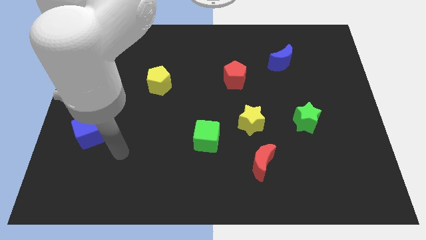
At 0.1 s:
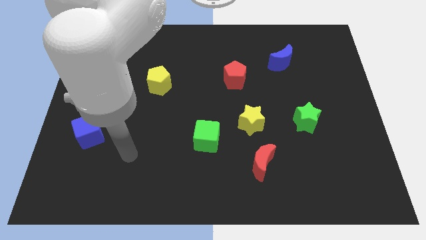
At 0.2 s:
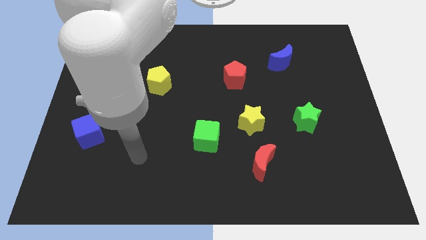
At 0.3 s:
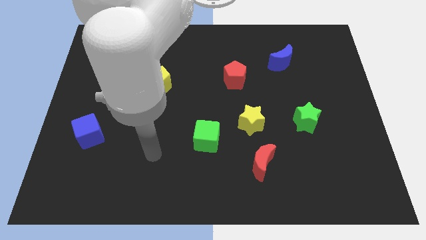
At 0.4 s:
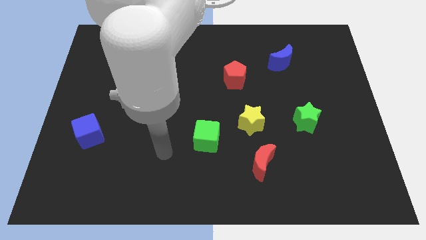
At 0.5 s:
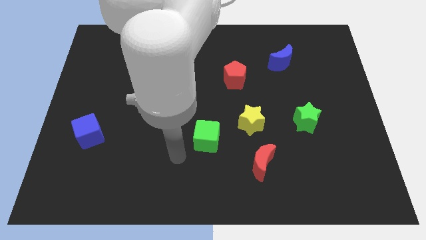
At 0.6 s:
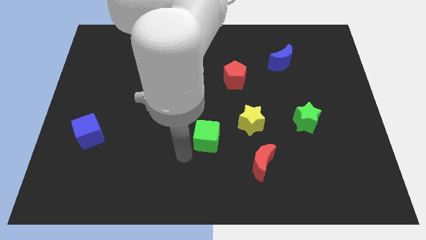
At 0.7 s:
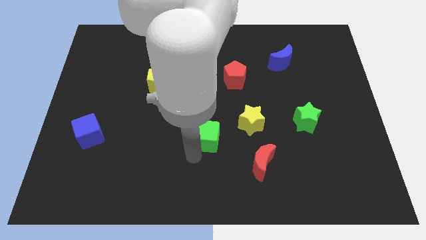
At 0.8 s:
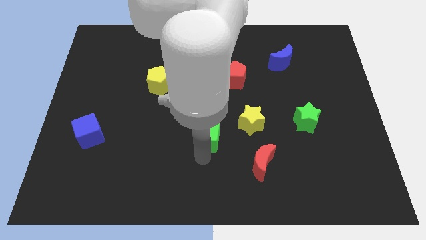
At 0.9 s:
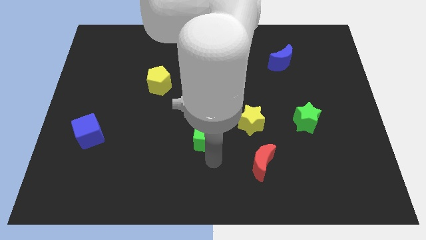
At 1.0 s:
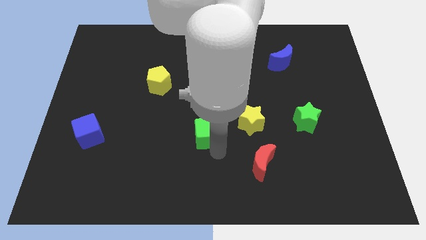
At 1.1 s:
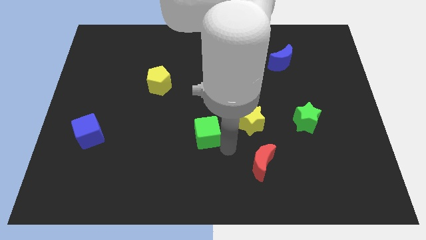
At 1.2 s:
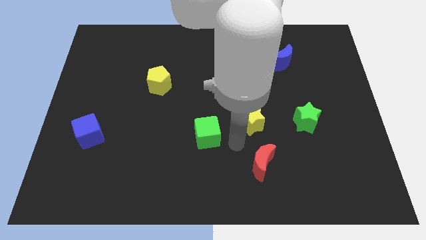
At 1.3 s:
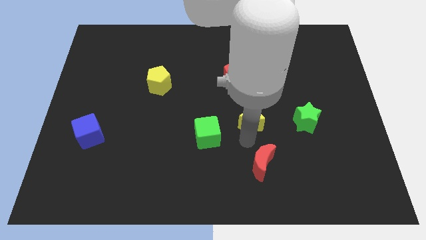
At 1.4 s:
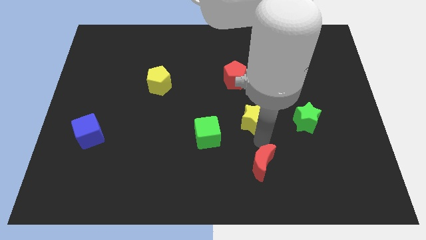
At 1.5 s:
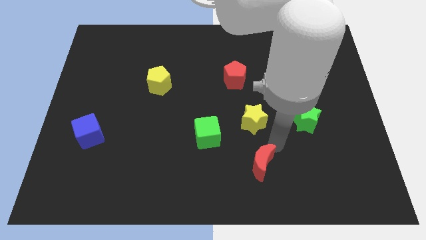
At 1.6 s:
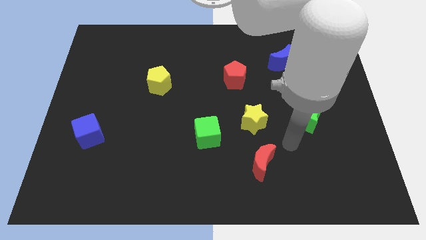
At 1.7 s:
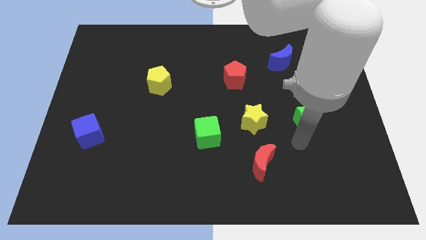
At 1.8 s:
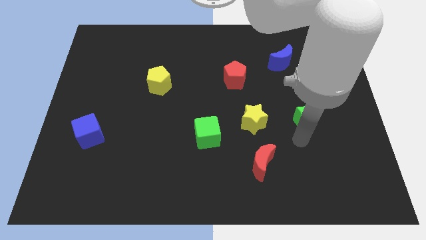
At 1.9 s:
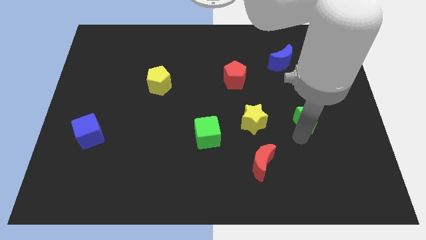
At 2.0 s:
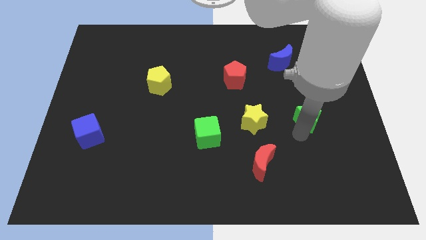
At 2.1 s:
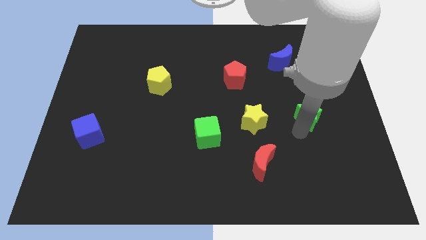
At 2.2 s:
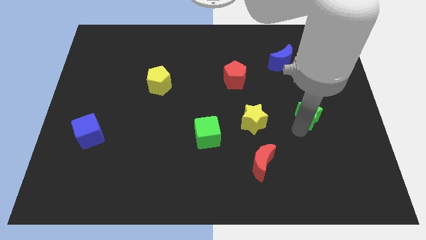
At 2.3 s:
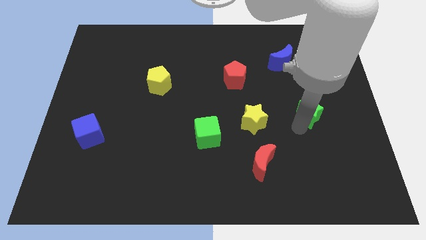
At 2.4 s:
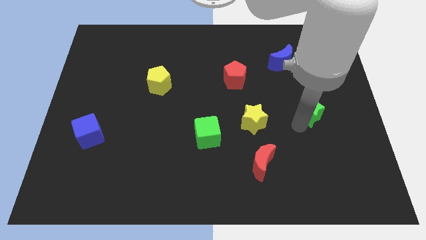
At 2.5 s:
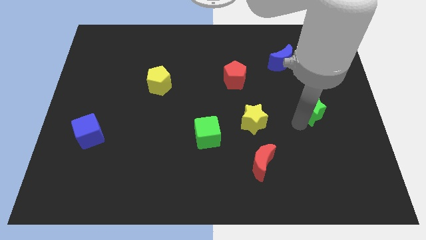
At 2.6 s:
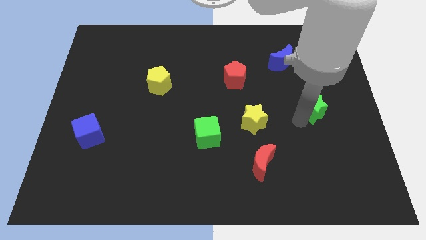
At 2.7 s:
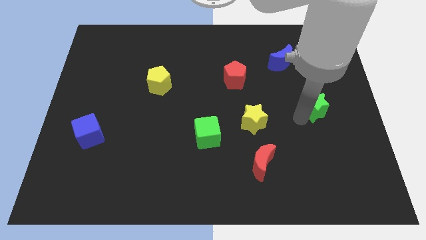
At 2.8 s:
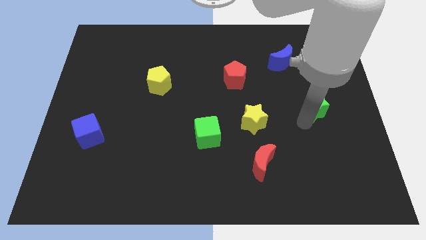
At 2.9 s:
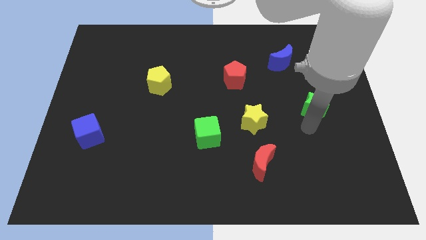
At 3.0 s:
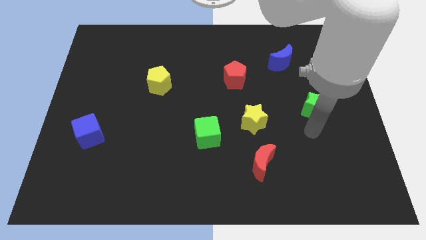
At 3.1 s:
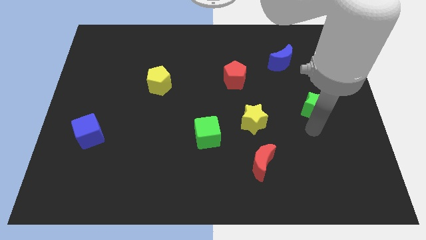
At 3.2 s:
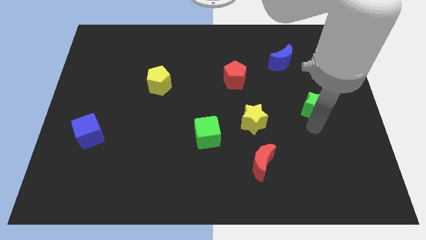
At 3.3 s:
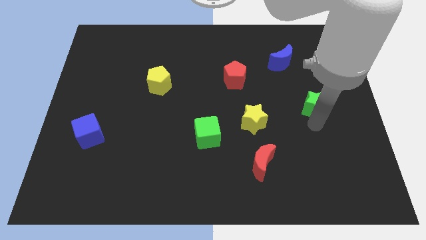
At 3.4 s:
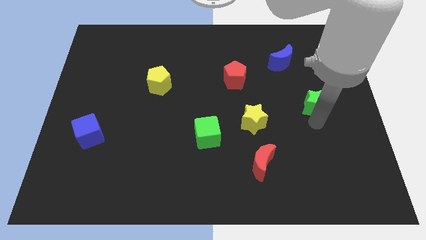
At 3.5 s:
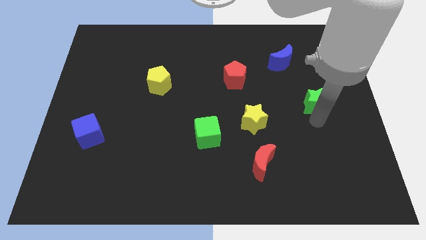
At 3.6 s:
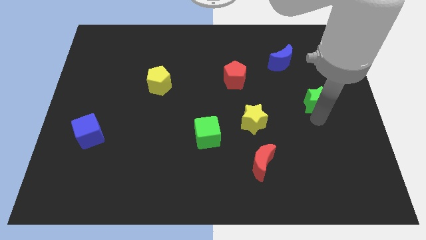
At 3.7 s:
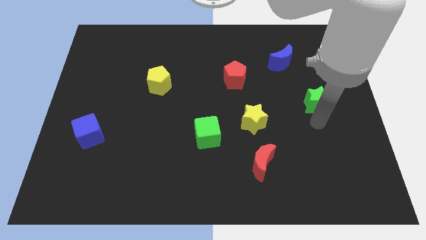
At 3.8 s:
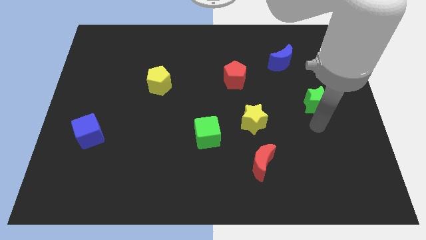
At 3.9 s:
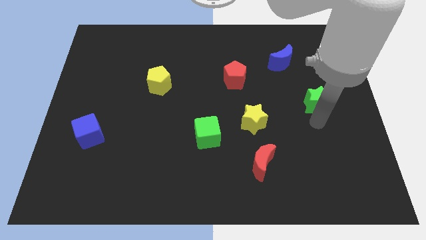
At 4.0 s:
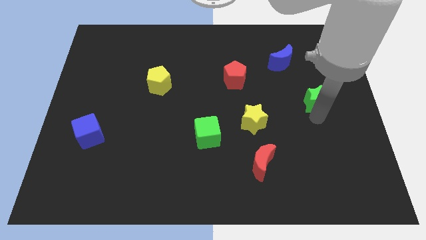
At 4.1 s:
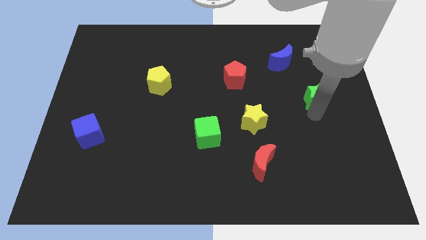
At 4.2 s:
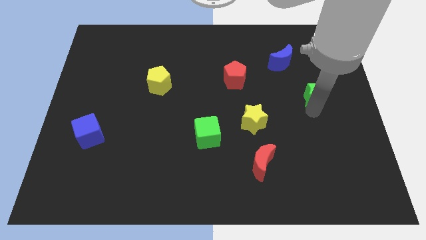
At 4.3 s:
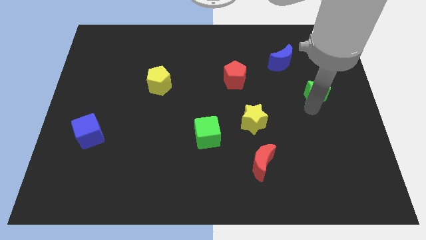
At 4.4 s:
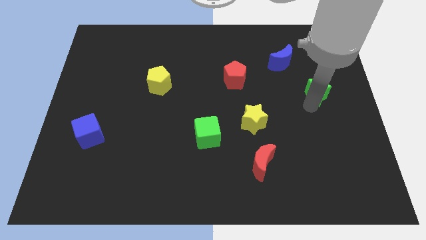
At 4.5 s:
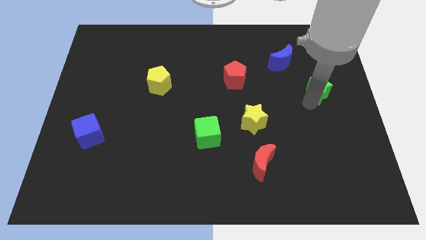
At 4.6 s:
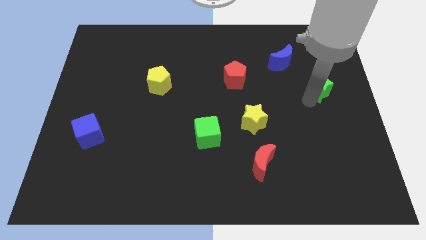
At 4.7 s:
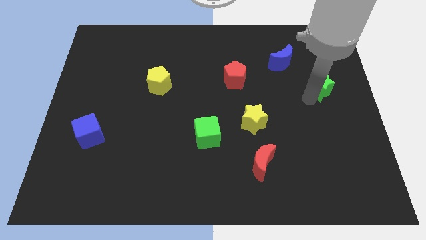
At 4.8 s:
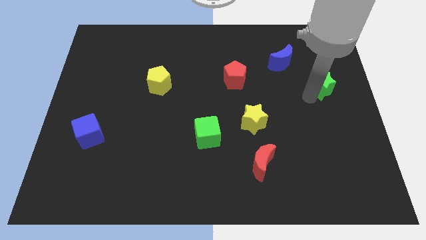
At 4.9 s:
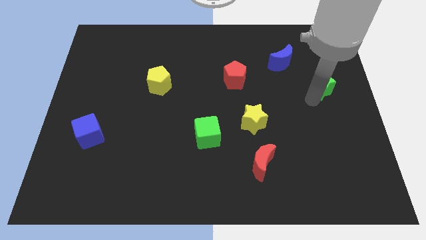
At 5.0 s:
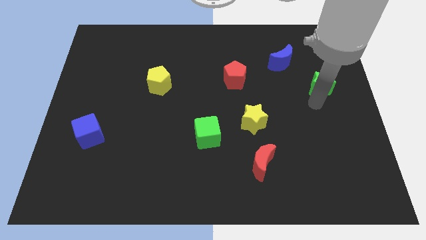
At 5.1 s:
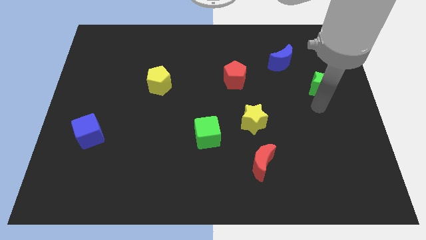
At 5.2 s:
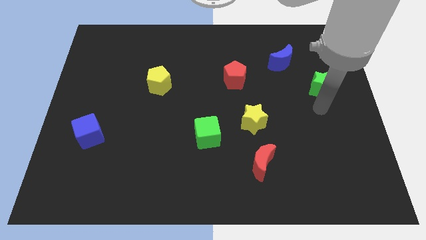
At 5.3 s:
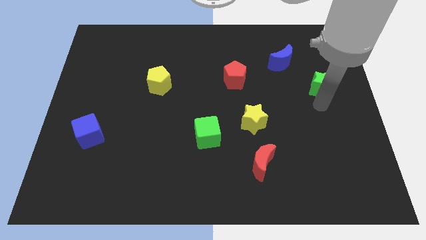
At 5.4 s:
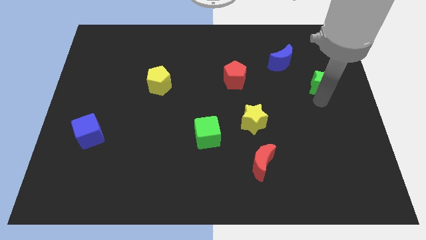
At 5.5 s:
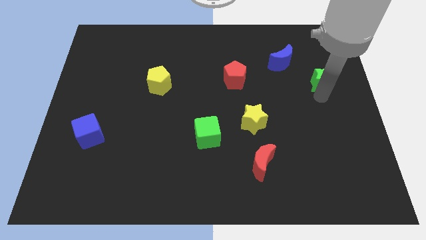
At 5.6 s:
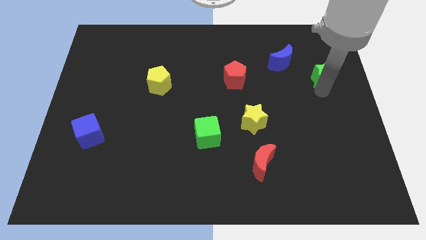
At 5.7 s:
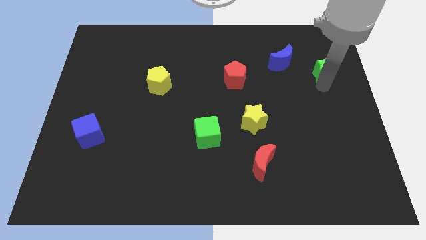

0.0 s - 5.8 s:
move the green star to the right of the blue moon

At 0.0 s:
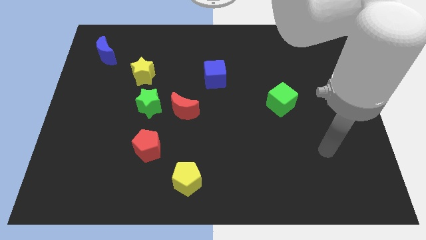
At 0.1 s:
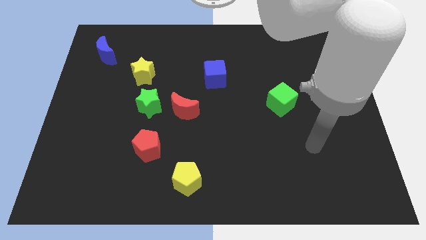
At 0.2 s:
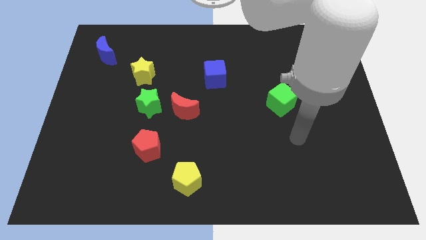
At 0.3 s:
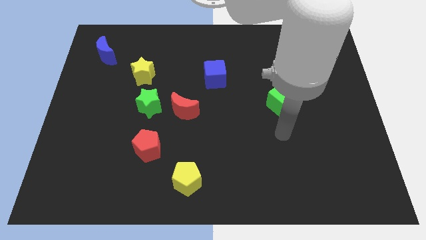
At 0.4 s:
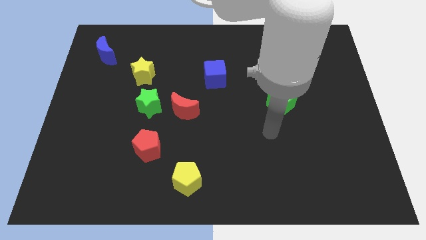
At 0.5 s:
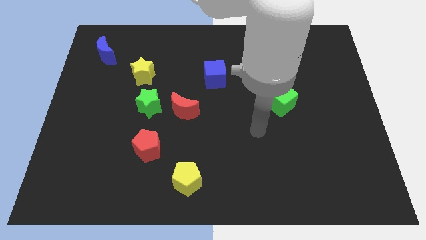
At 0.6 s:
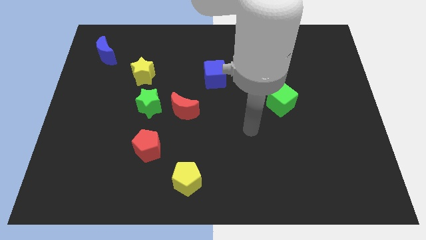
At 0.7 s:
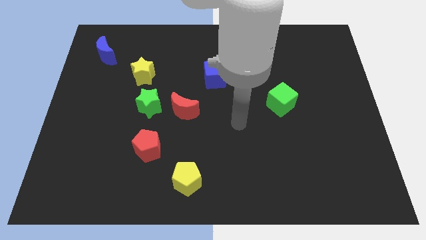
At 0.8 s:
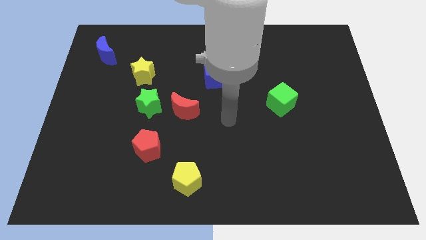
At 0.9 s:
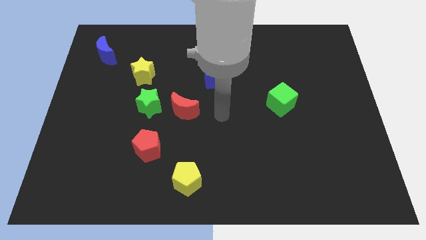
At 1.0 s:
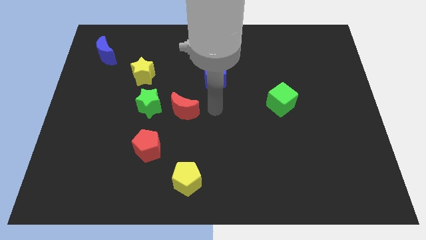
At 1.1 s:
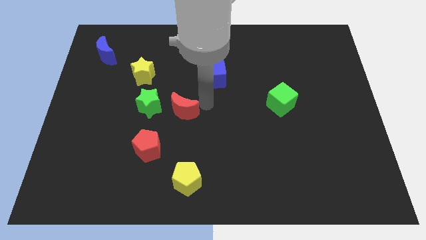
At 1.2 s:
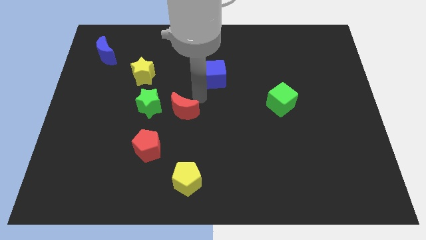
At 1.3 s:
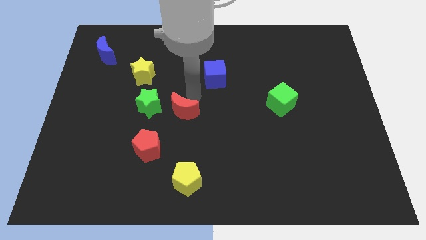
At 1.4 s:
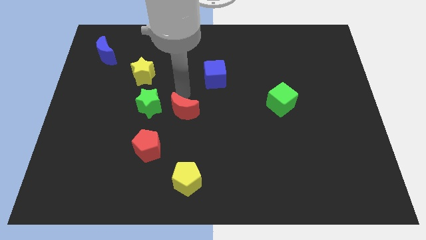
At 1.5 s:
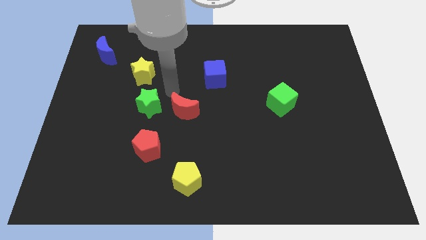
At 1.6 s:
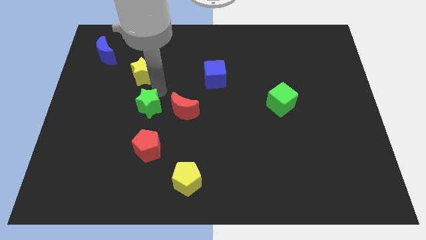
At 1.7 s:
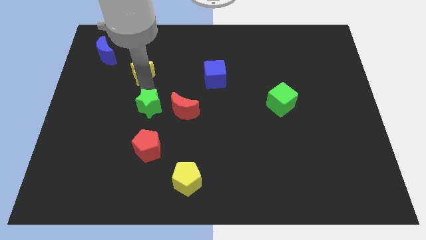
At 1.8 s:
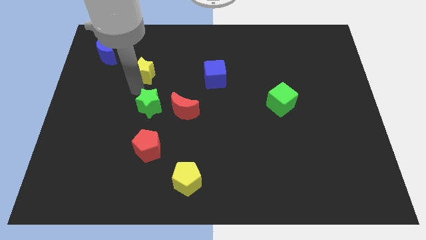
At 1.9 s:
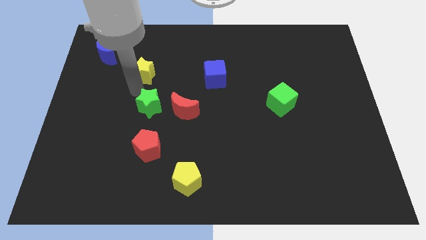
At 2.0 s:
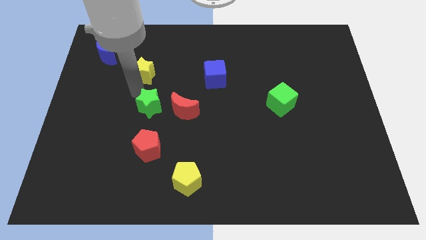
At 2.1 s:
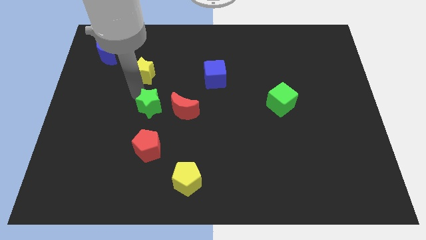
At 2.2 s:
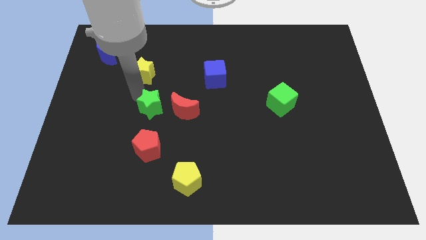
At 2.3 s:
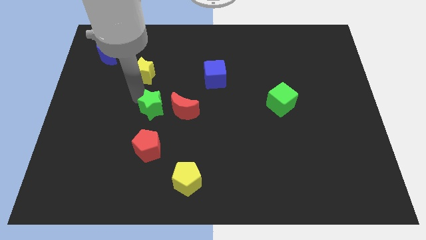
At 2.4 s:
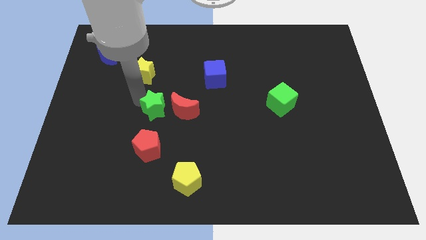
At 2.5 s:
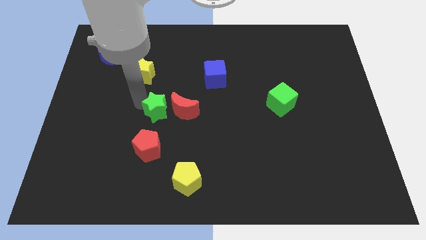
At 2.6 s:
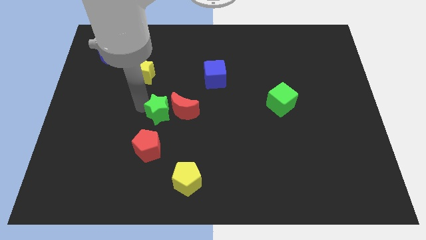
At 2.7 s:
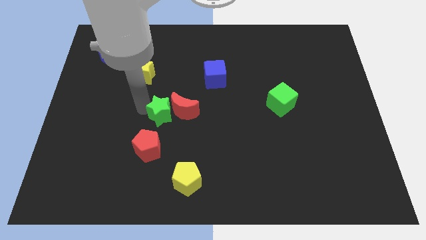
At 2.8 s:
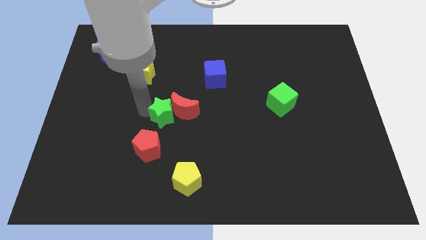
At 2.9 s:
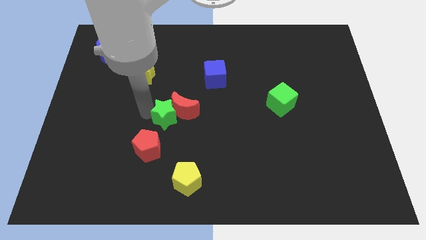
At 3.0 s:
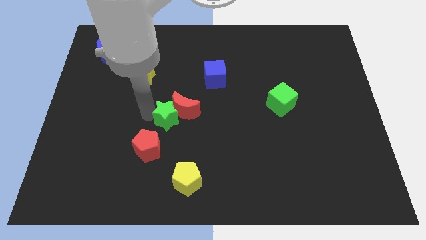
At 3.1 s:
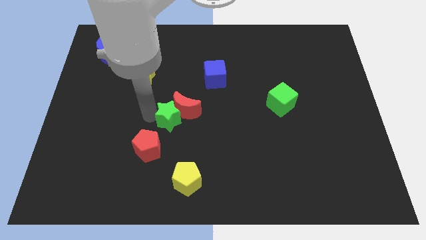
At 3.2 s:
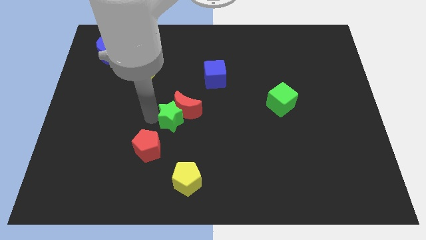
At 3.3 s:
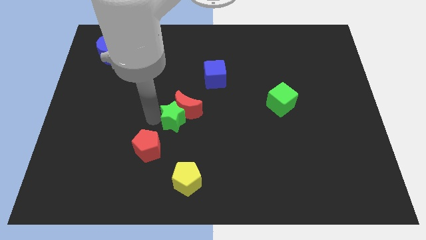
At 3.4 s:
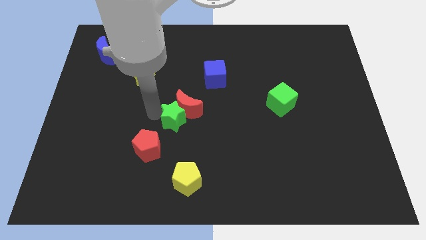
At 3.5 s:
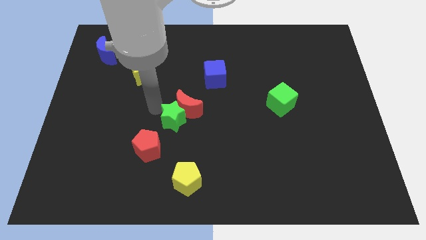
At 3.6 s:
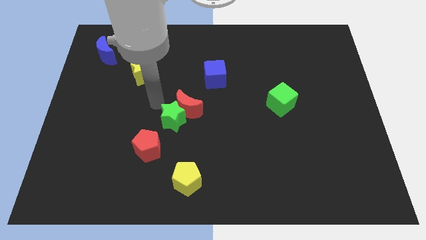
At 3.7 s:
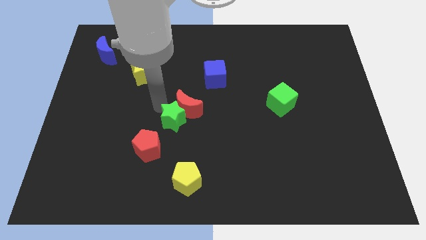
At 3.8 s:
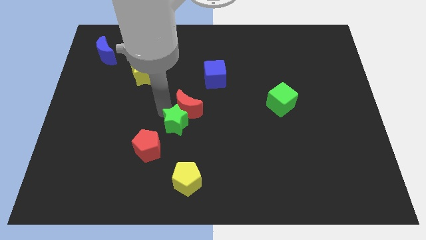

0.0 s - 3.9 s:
put the green star to the top side of the yellow pentagon
